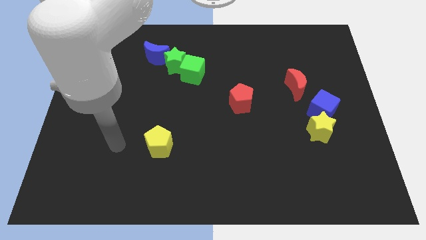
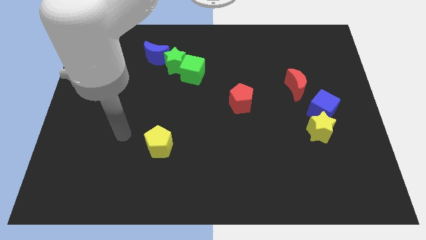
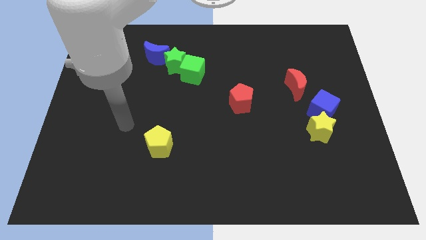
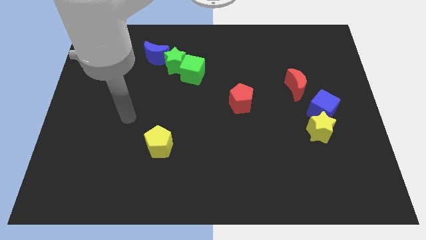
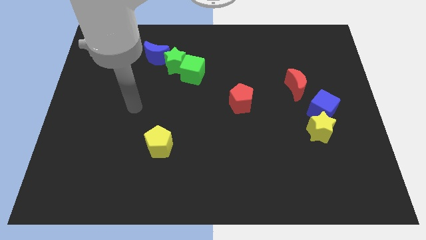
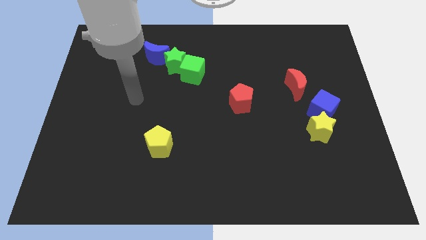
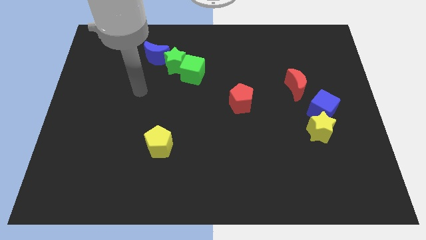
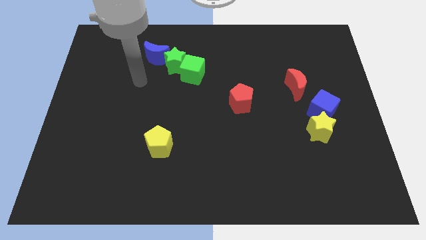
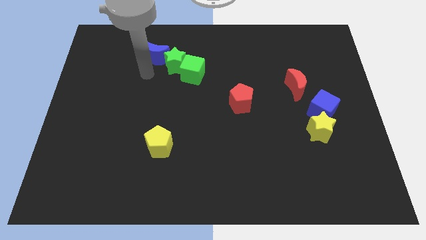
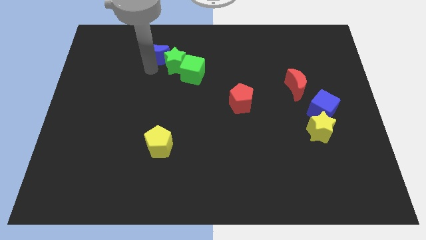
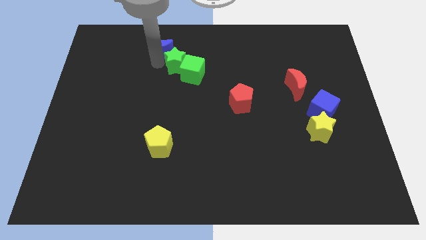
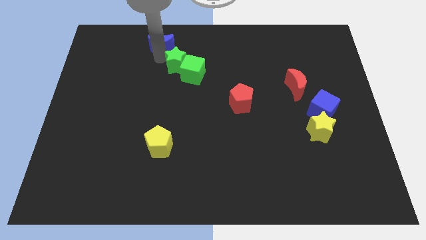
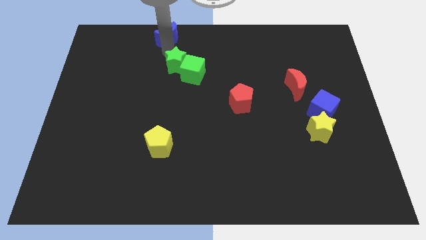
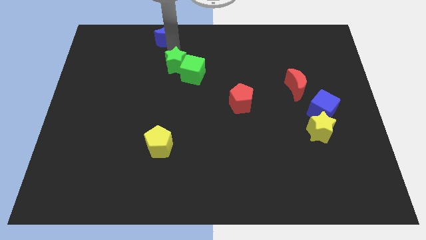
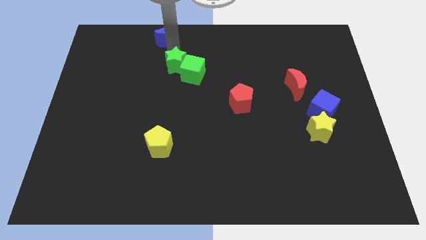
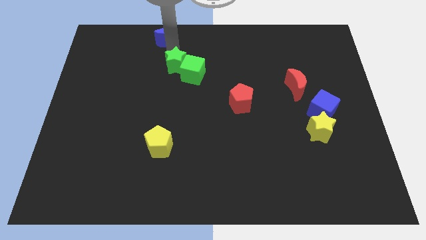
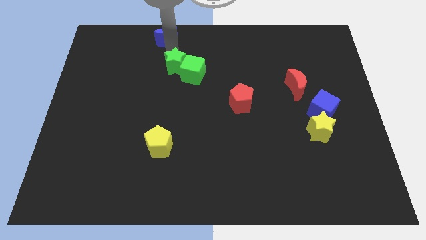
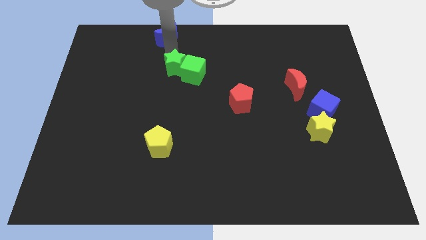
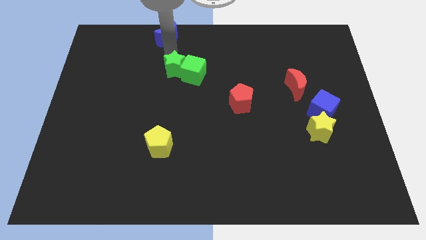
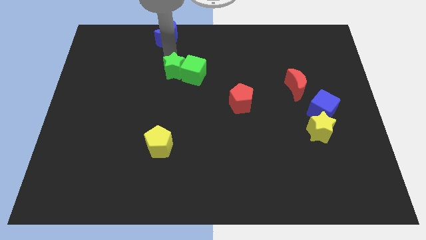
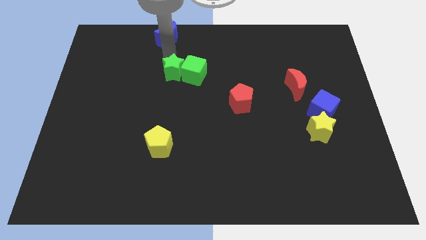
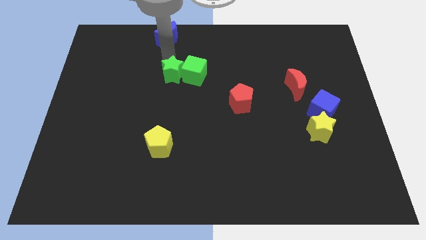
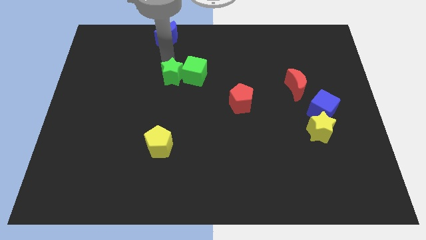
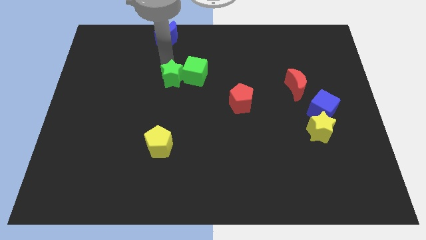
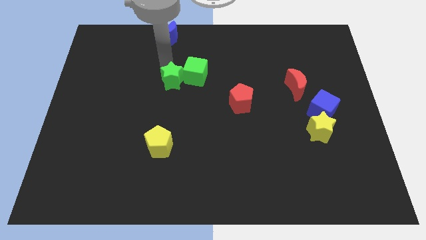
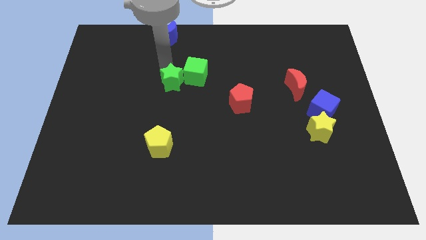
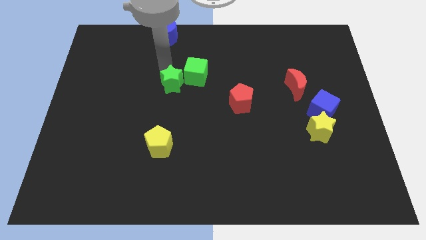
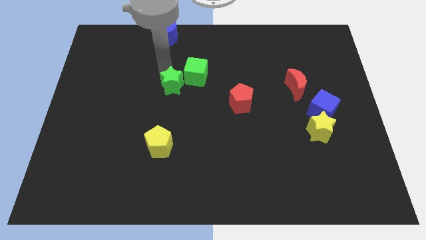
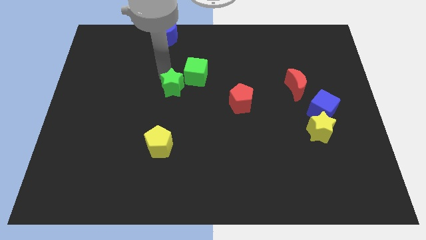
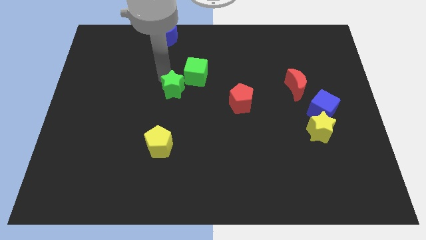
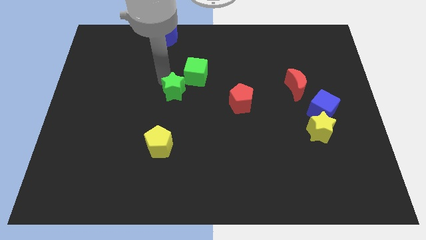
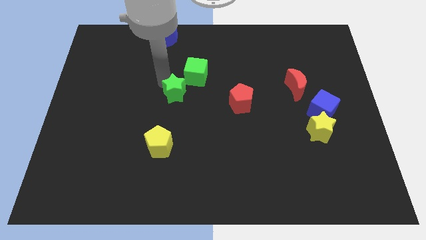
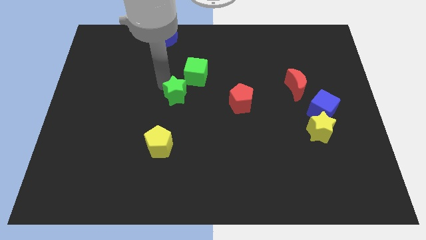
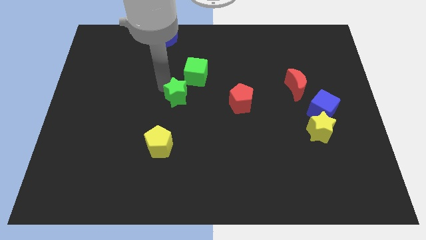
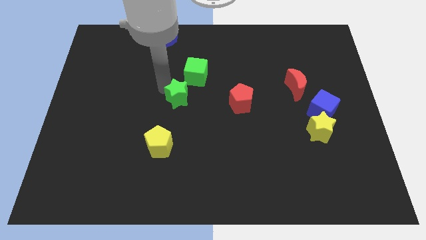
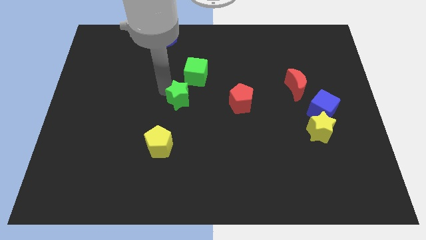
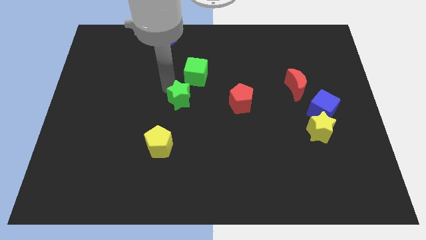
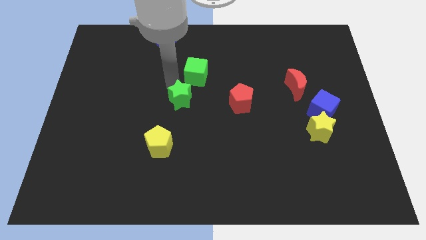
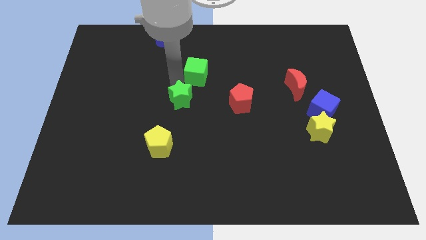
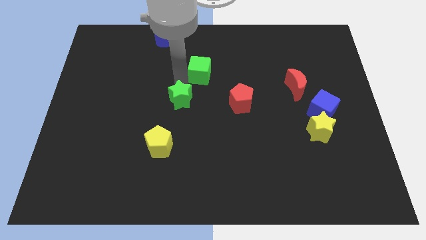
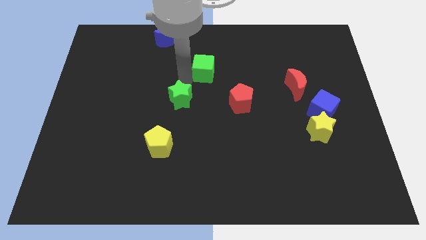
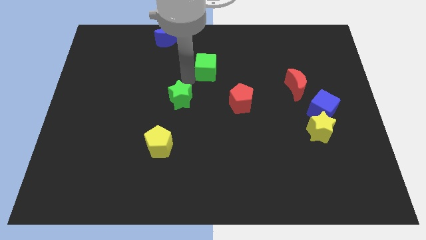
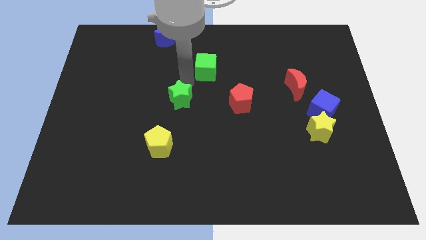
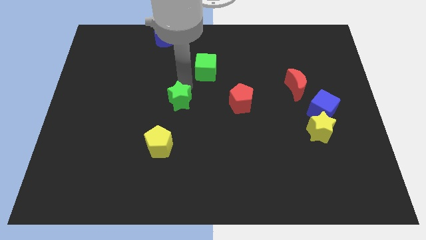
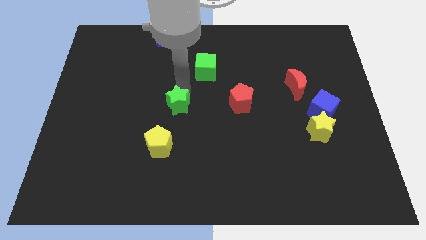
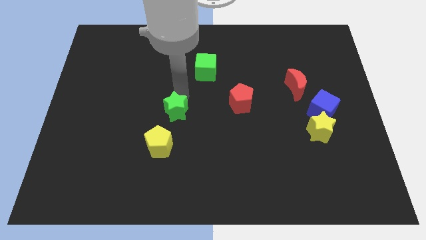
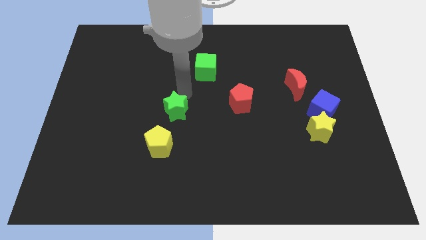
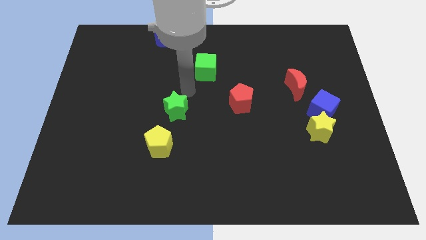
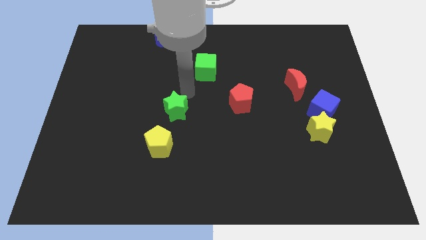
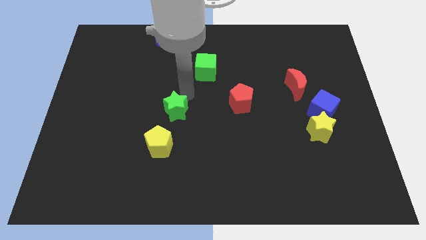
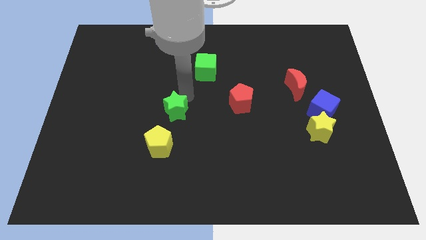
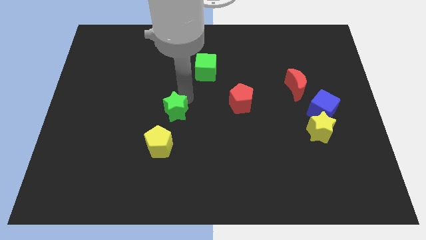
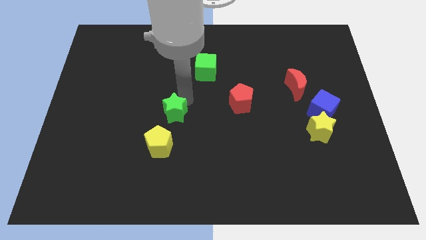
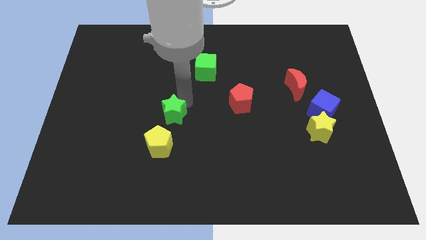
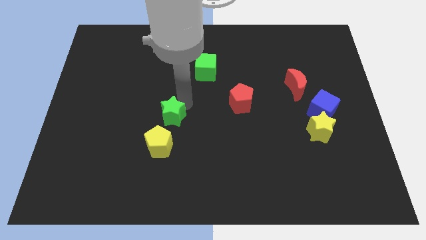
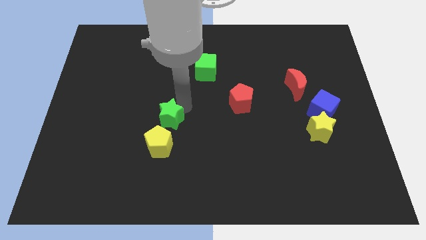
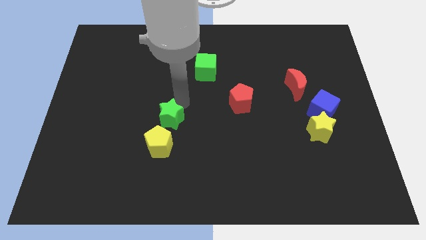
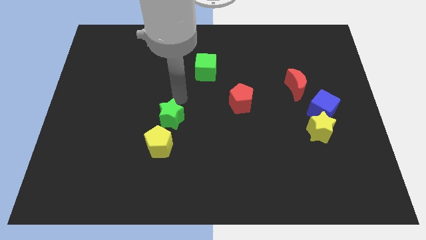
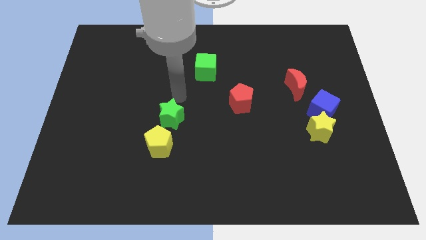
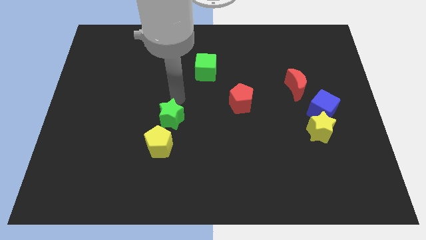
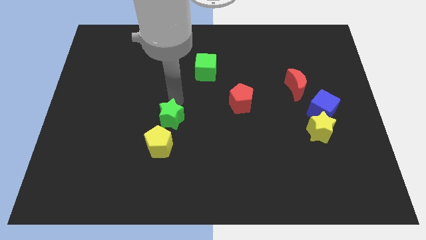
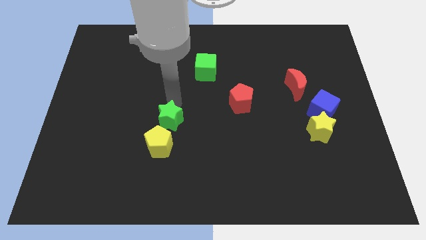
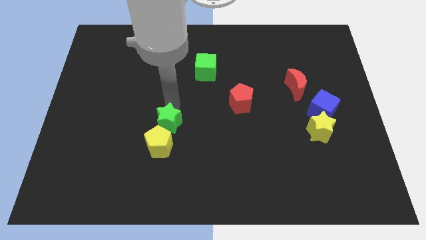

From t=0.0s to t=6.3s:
push the green star next to the yellow pentagon

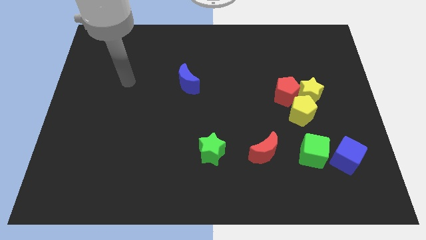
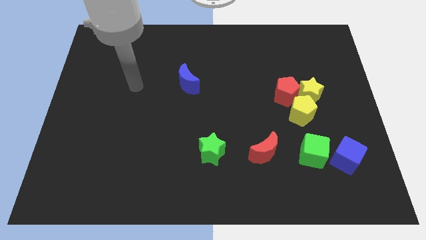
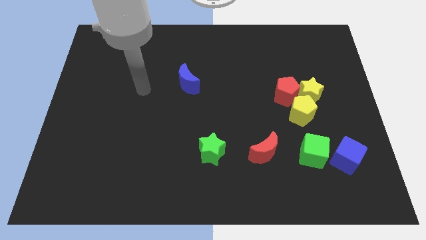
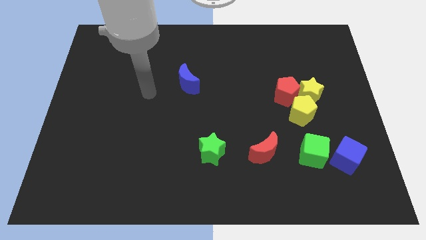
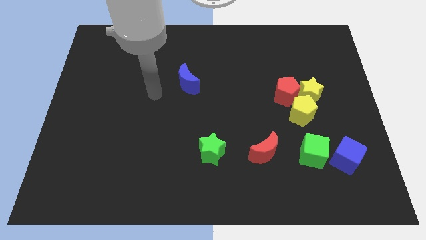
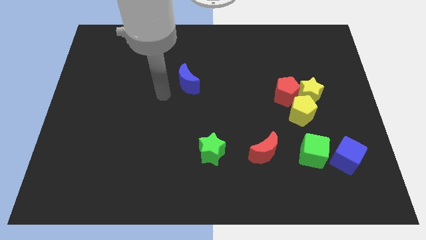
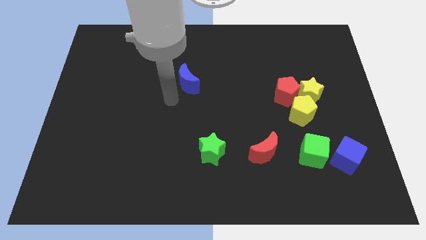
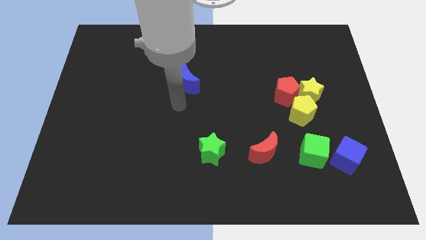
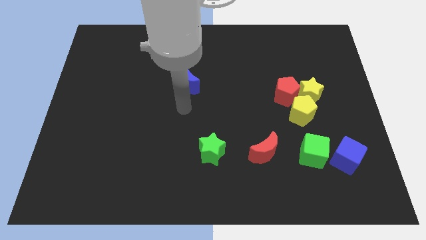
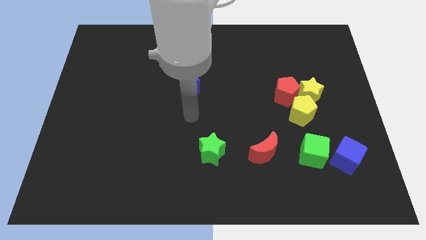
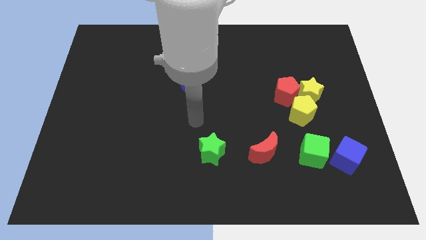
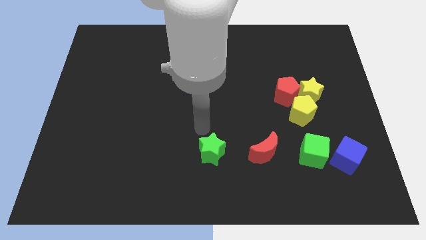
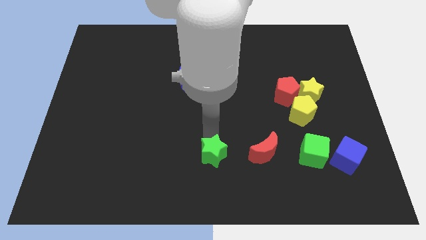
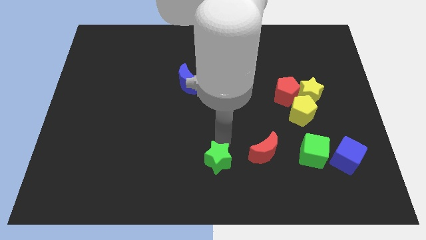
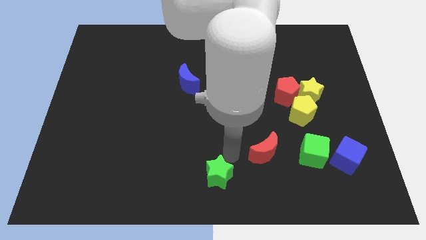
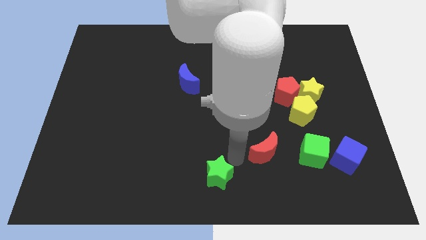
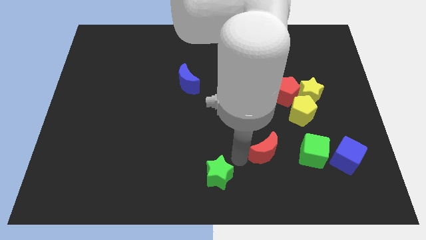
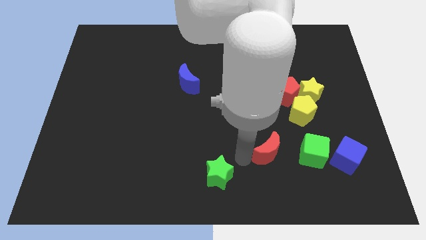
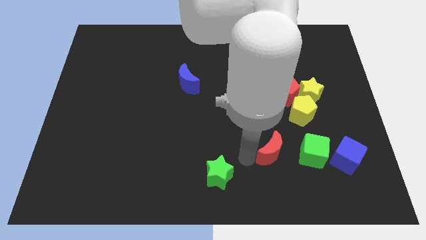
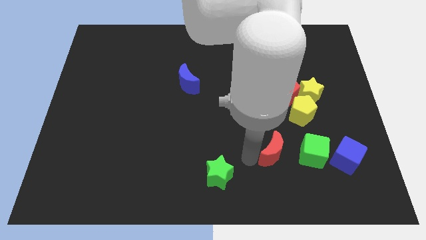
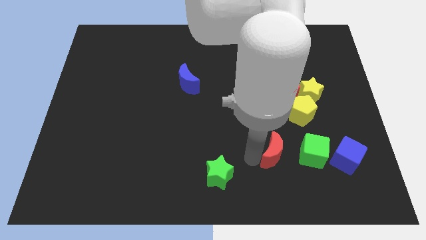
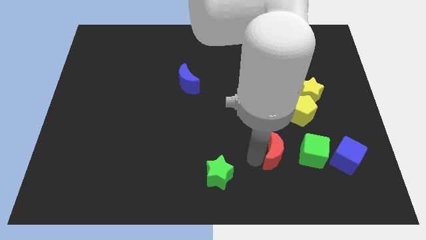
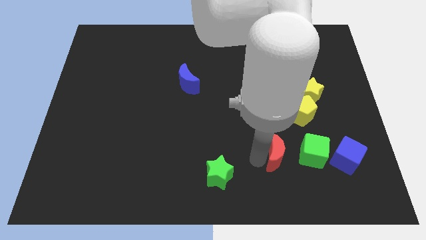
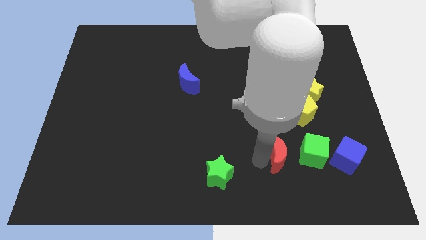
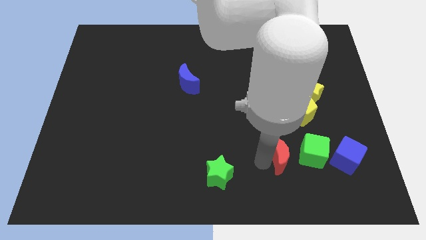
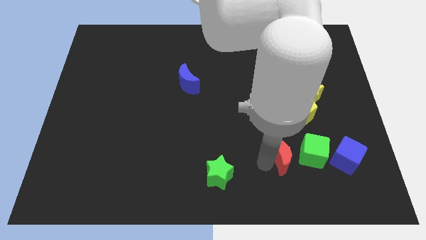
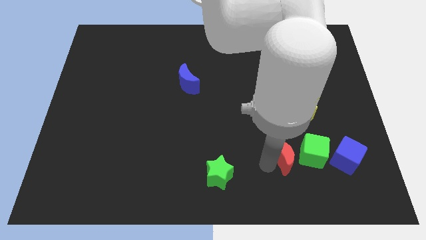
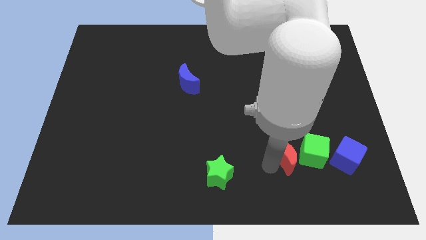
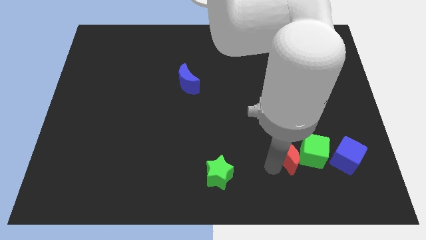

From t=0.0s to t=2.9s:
move the red moon next to the green cube
